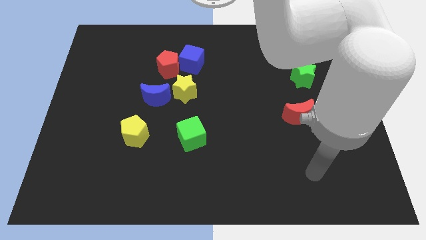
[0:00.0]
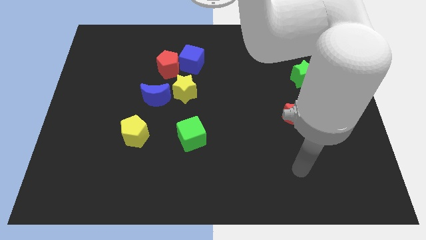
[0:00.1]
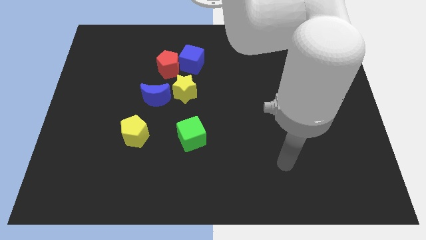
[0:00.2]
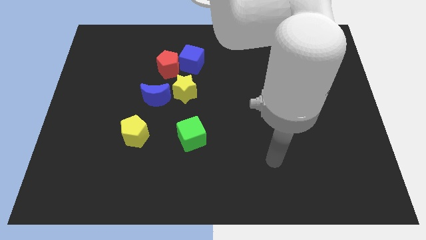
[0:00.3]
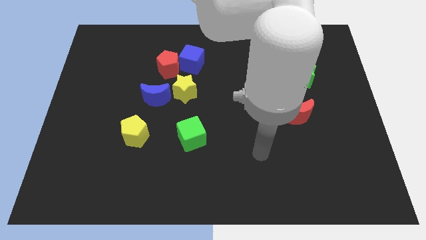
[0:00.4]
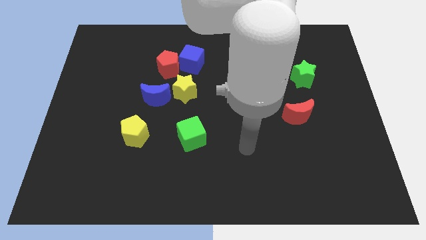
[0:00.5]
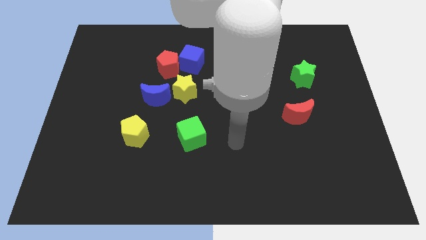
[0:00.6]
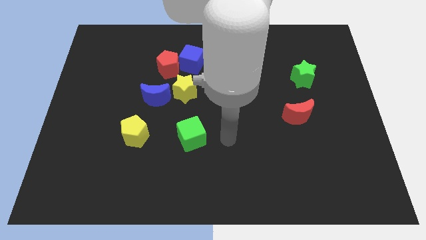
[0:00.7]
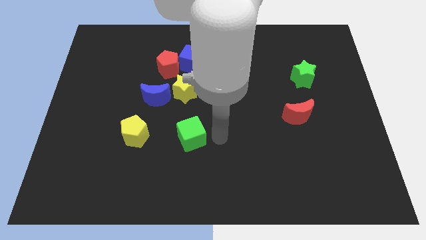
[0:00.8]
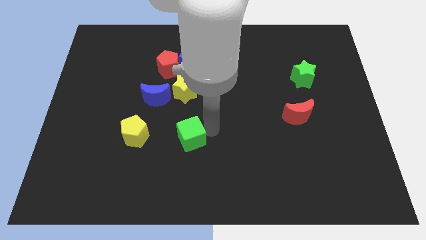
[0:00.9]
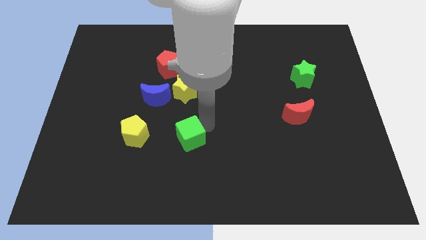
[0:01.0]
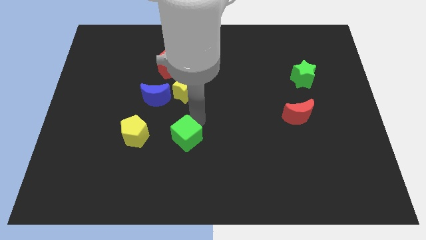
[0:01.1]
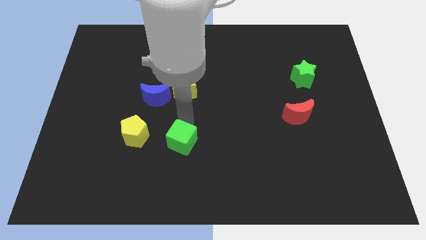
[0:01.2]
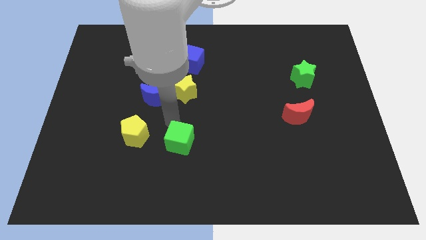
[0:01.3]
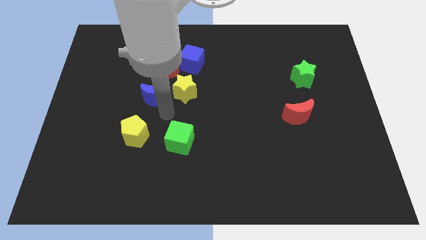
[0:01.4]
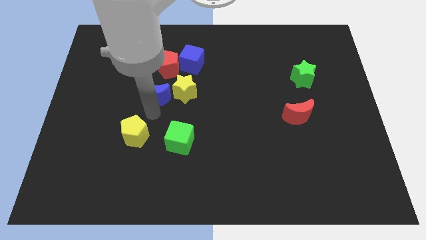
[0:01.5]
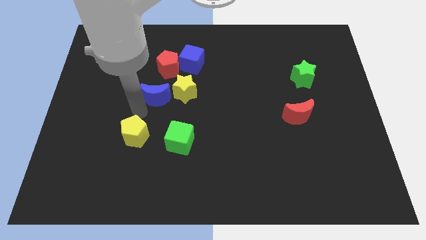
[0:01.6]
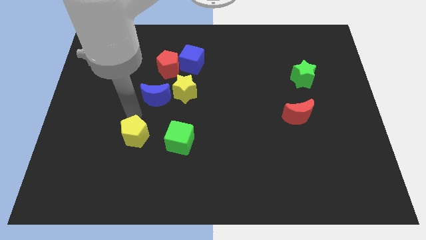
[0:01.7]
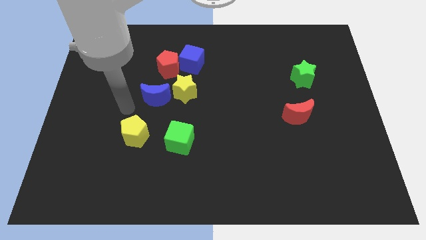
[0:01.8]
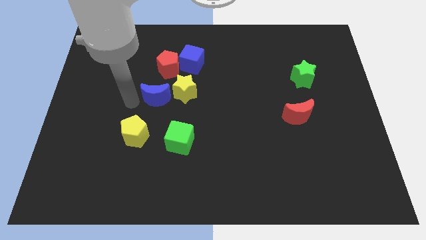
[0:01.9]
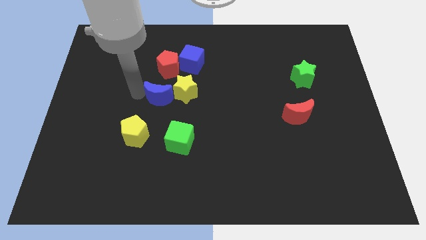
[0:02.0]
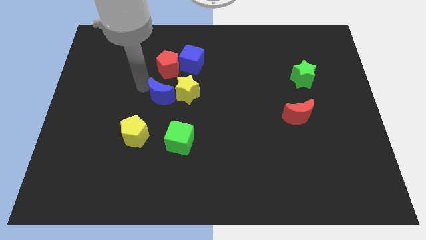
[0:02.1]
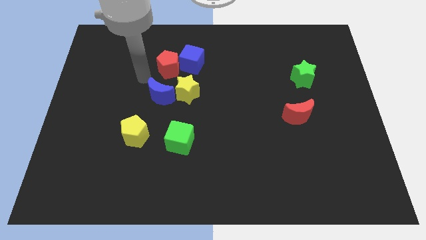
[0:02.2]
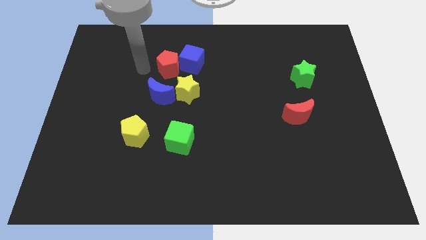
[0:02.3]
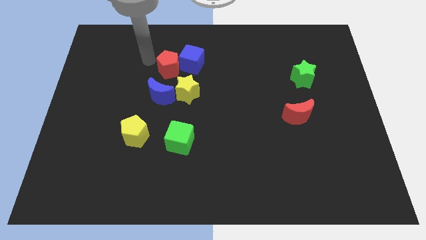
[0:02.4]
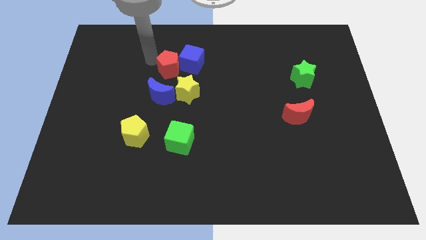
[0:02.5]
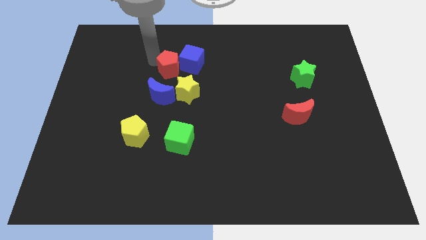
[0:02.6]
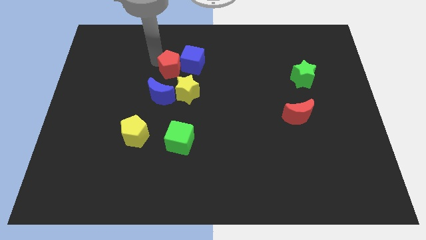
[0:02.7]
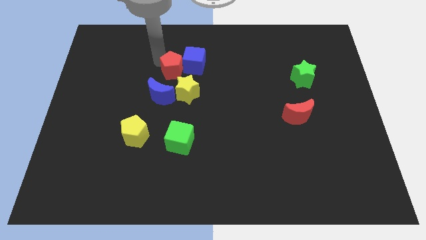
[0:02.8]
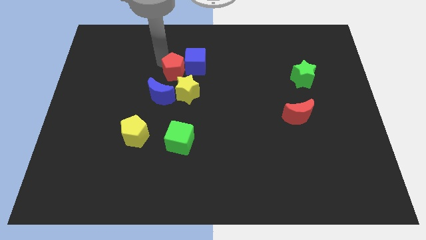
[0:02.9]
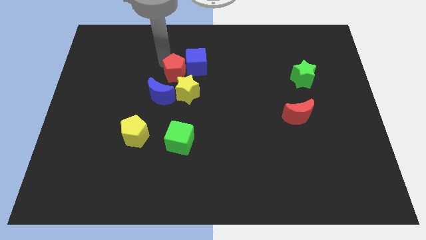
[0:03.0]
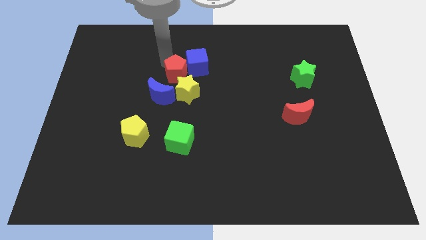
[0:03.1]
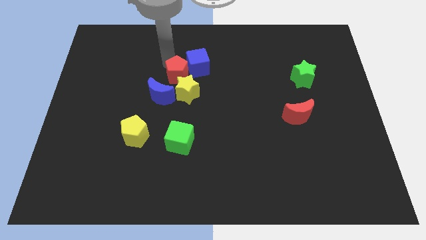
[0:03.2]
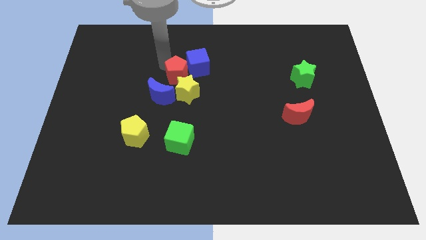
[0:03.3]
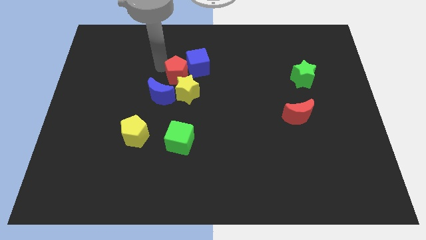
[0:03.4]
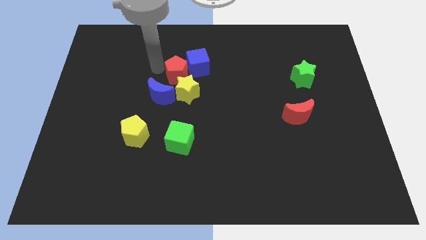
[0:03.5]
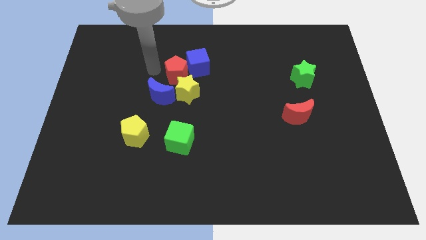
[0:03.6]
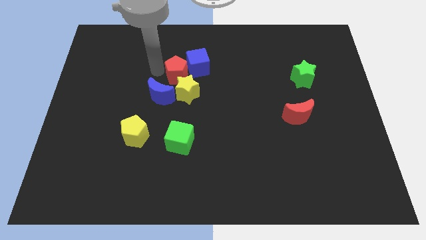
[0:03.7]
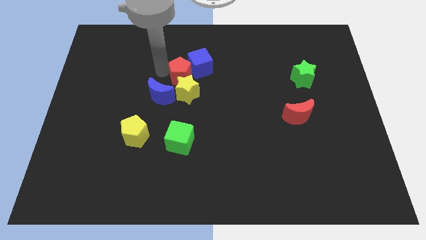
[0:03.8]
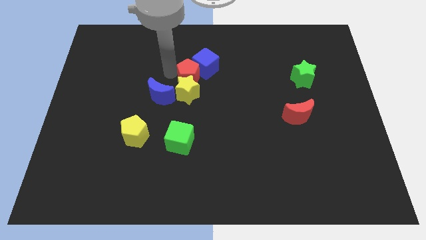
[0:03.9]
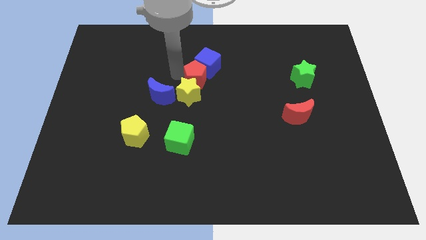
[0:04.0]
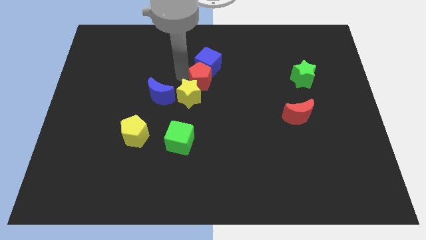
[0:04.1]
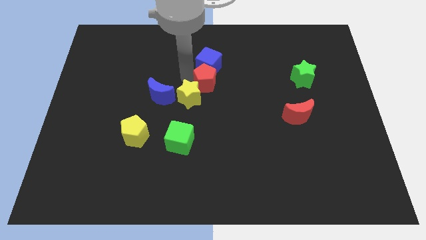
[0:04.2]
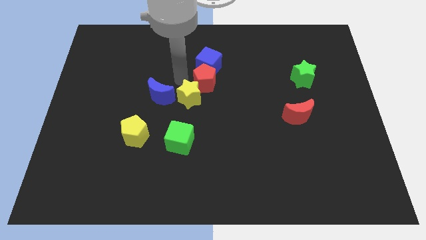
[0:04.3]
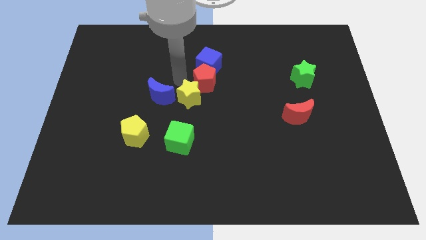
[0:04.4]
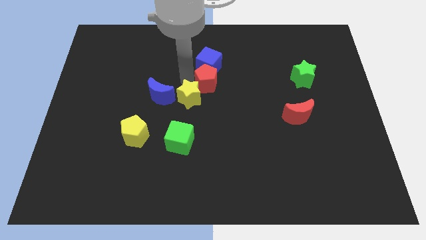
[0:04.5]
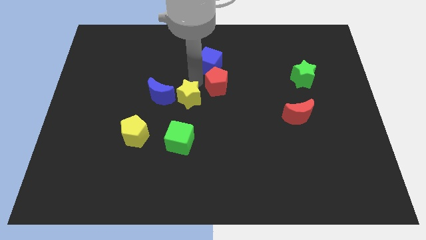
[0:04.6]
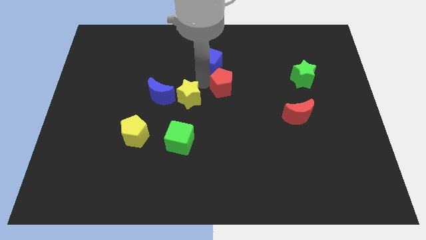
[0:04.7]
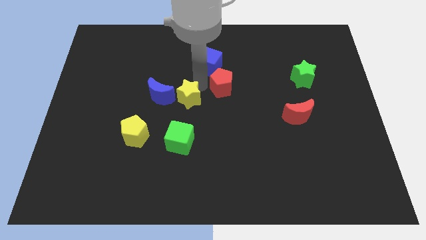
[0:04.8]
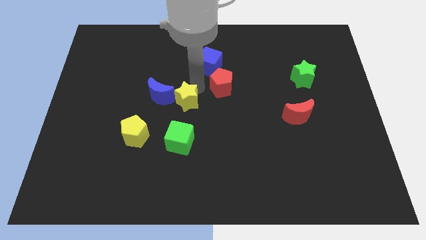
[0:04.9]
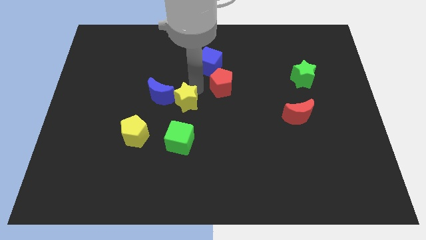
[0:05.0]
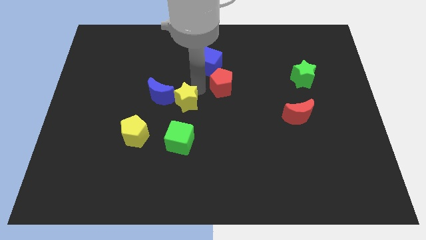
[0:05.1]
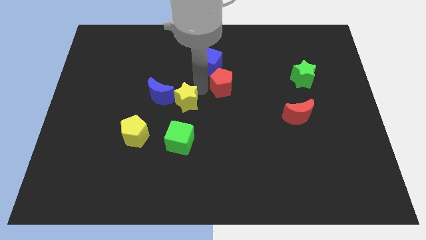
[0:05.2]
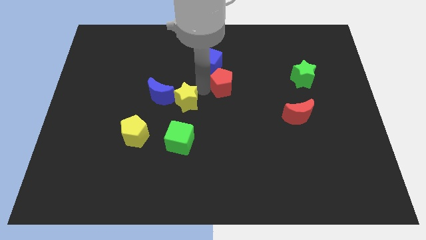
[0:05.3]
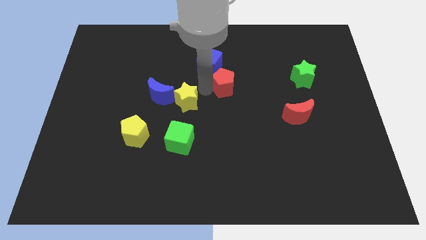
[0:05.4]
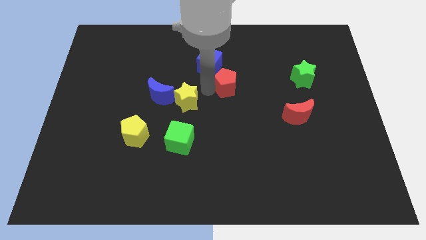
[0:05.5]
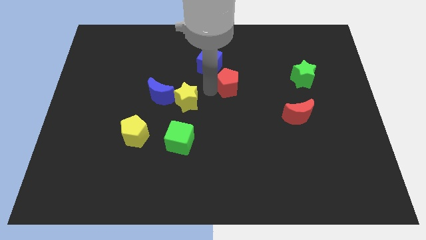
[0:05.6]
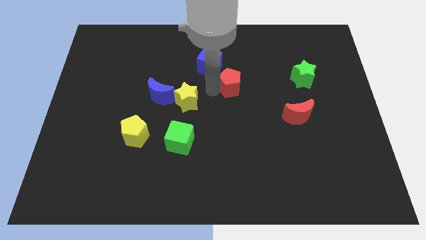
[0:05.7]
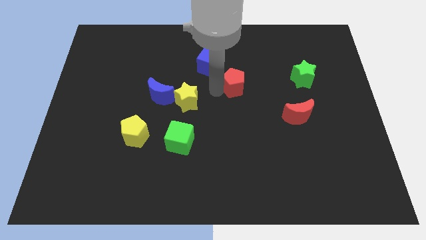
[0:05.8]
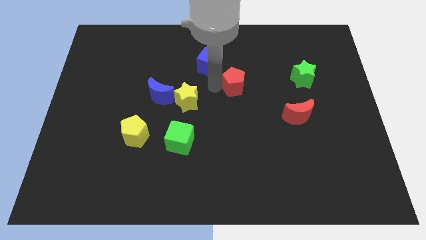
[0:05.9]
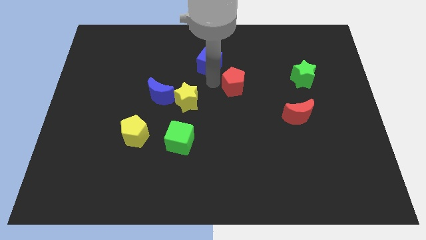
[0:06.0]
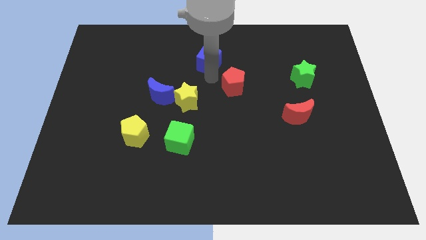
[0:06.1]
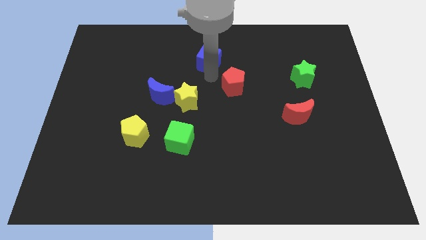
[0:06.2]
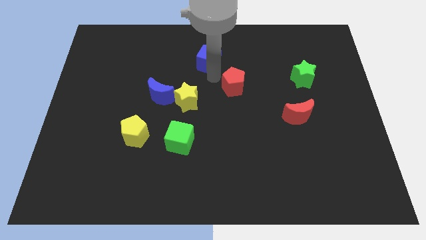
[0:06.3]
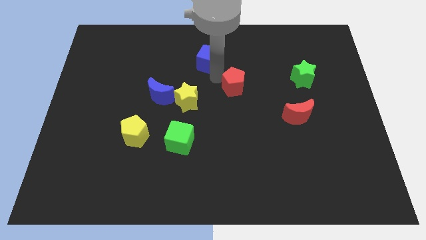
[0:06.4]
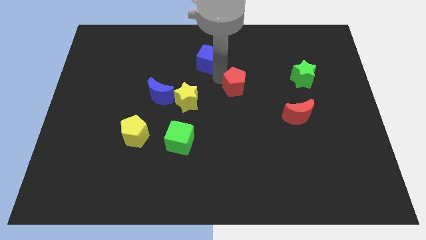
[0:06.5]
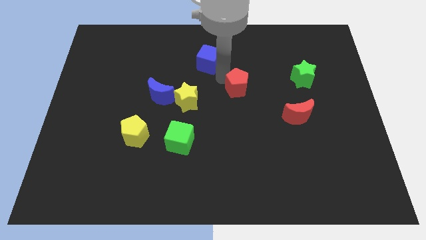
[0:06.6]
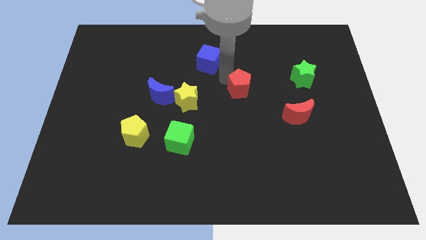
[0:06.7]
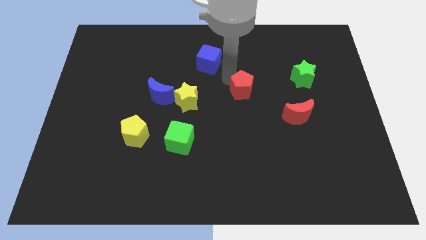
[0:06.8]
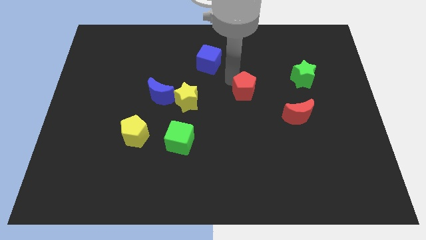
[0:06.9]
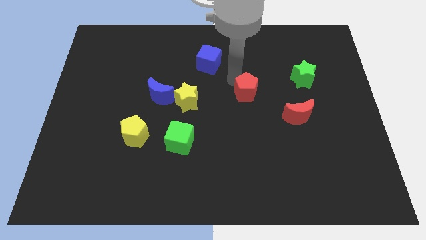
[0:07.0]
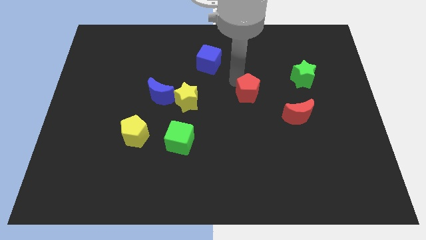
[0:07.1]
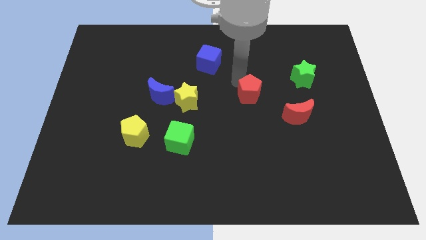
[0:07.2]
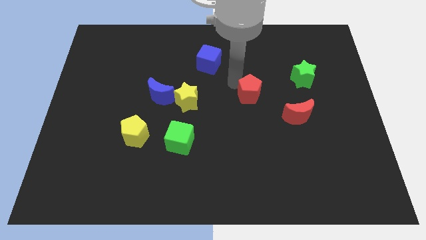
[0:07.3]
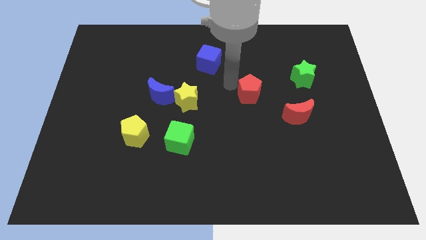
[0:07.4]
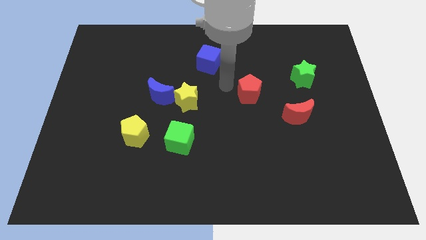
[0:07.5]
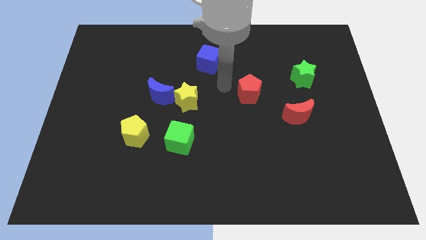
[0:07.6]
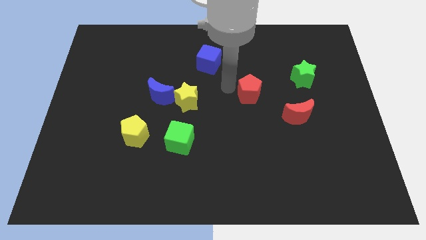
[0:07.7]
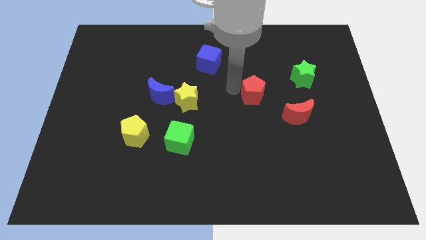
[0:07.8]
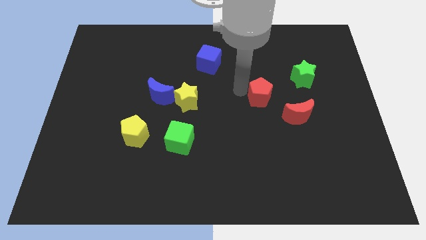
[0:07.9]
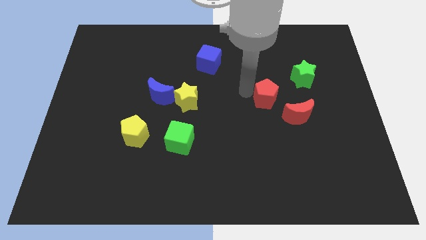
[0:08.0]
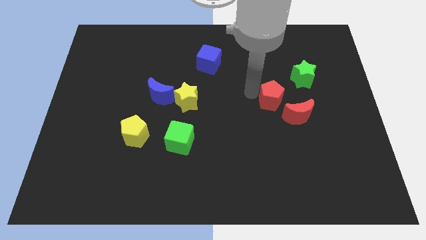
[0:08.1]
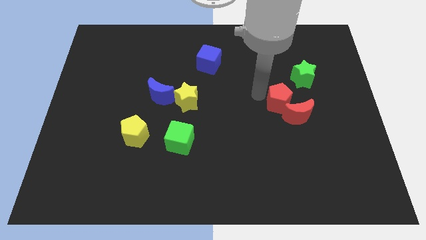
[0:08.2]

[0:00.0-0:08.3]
move the red pentagon towards the red moon
